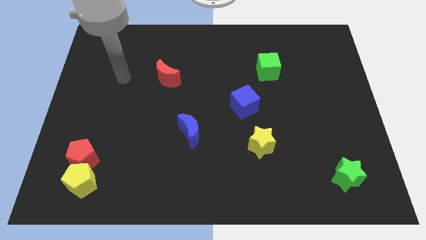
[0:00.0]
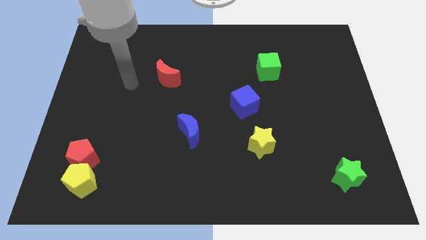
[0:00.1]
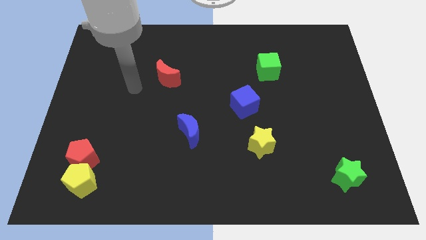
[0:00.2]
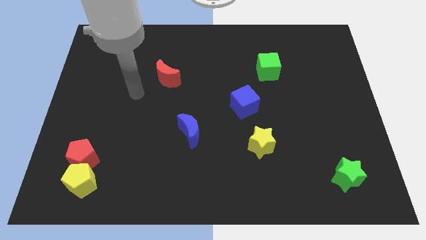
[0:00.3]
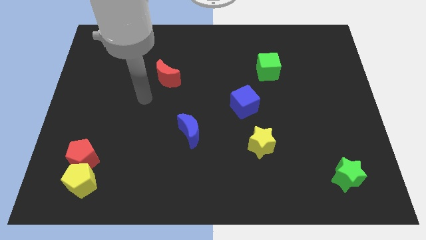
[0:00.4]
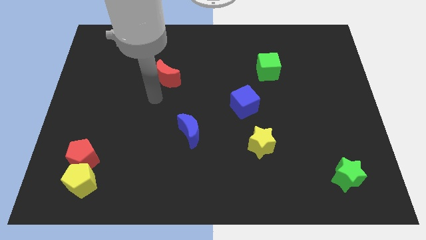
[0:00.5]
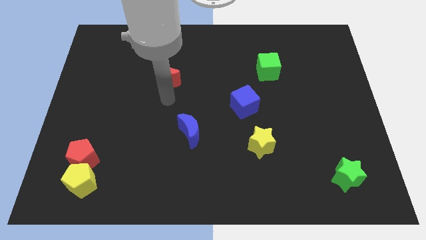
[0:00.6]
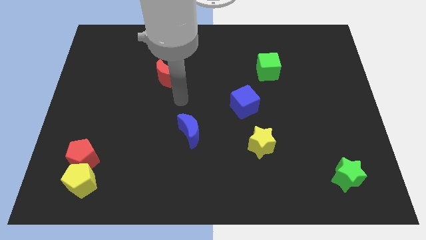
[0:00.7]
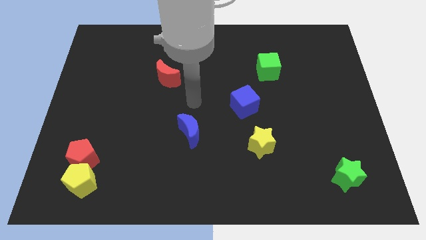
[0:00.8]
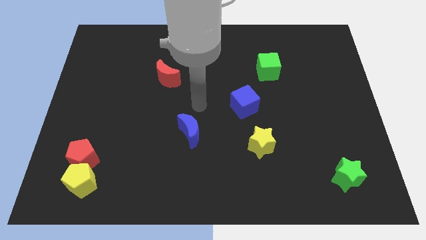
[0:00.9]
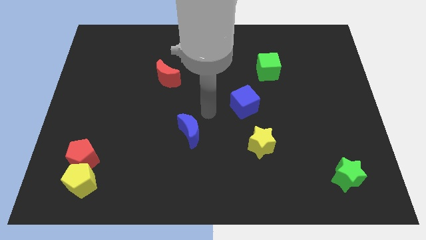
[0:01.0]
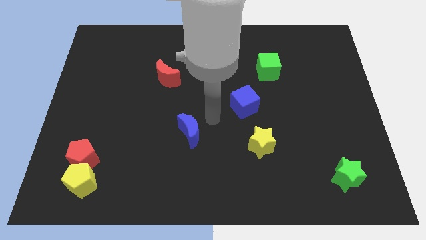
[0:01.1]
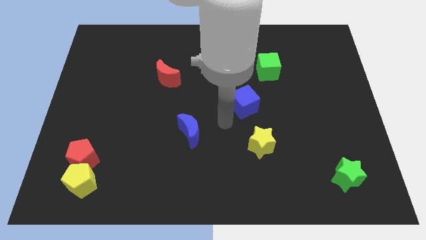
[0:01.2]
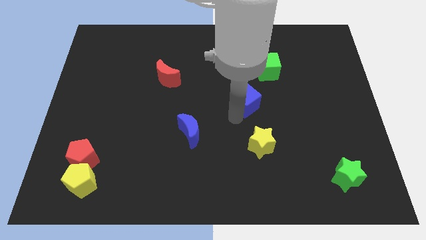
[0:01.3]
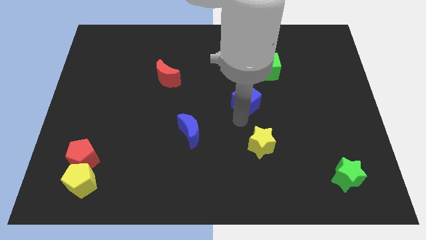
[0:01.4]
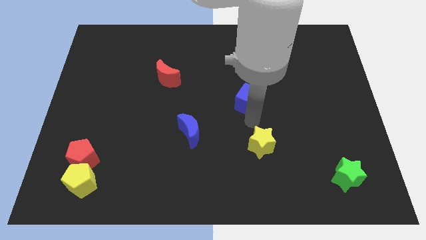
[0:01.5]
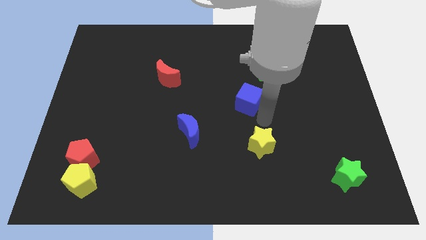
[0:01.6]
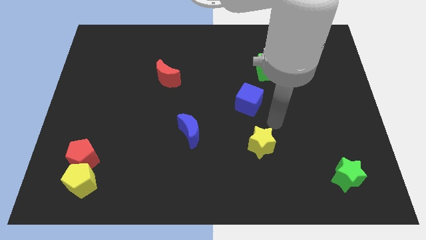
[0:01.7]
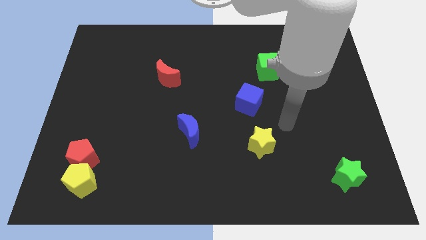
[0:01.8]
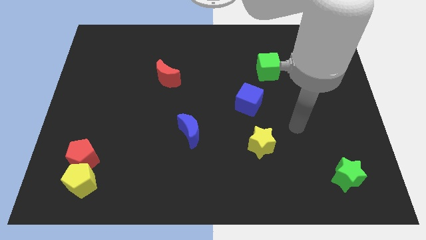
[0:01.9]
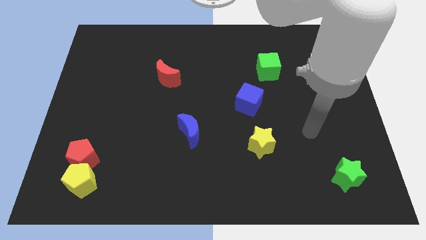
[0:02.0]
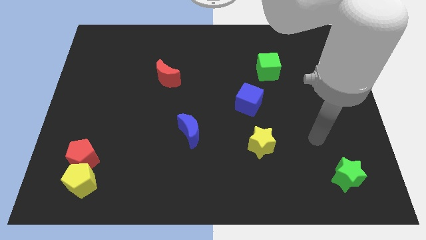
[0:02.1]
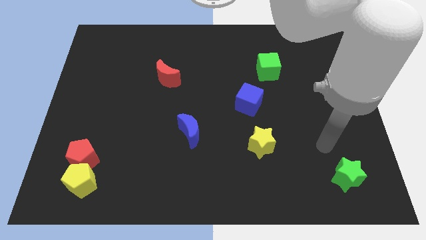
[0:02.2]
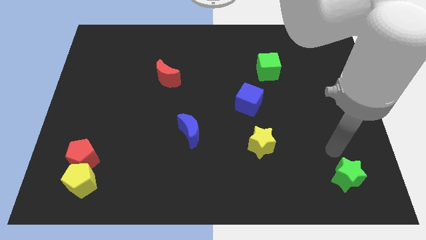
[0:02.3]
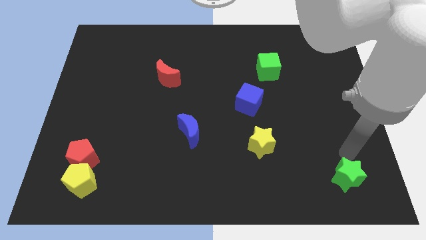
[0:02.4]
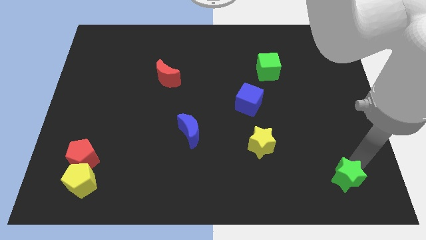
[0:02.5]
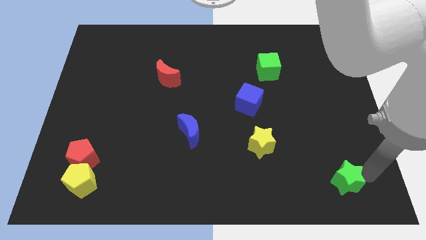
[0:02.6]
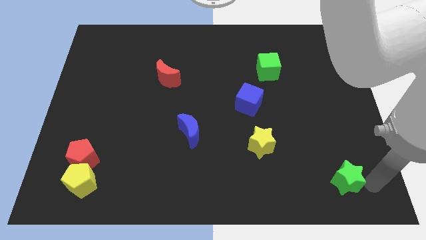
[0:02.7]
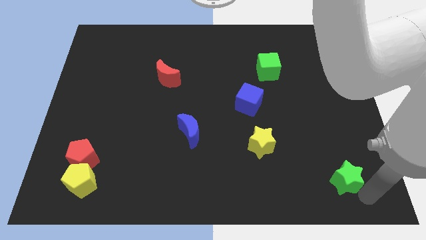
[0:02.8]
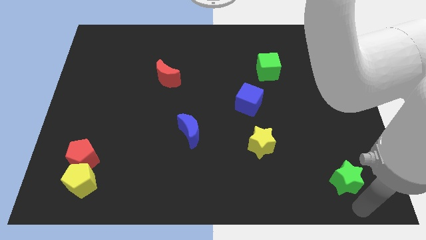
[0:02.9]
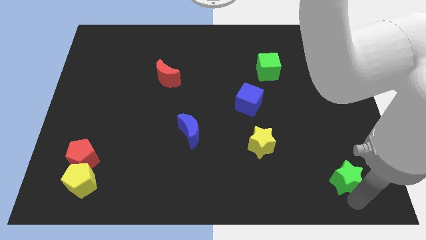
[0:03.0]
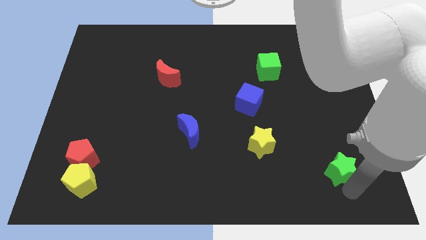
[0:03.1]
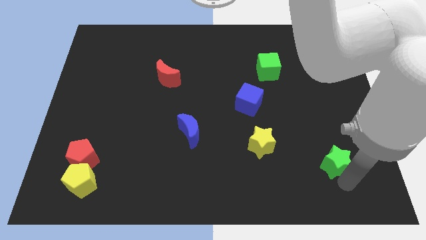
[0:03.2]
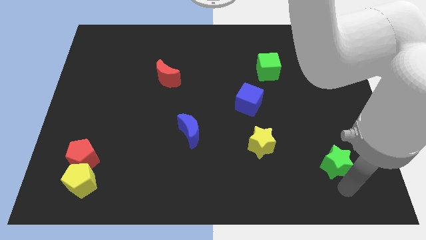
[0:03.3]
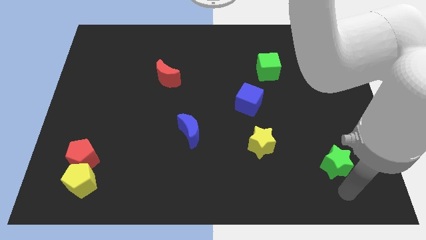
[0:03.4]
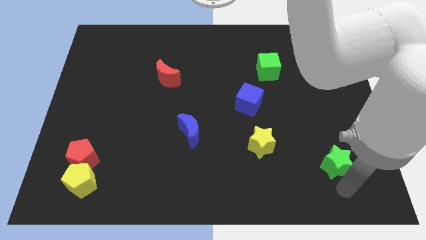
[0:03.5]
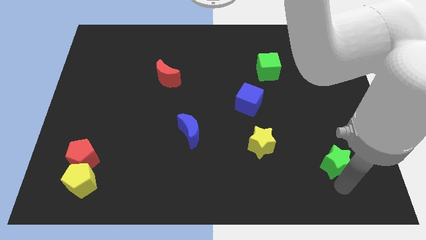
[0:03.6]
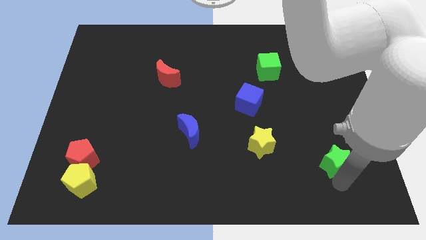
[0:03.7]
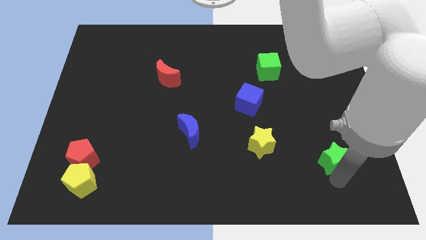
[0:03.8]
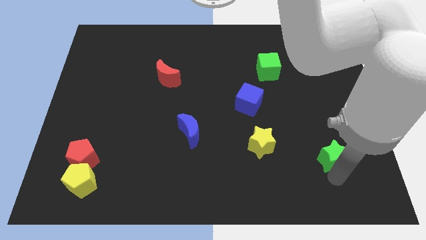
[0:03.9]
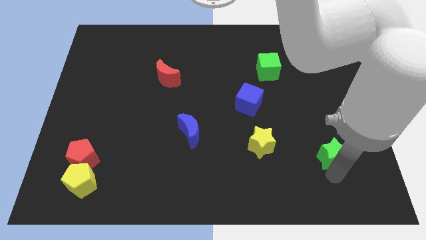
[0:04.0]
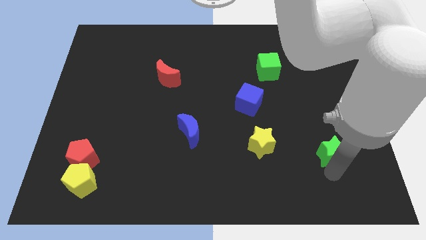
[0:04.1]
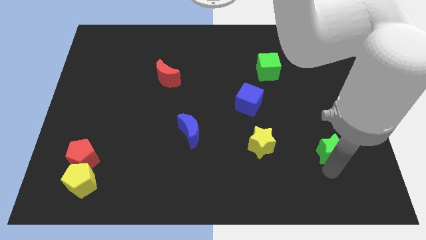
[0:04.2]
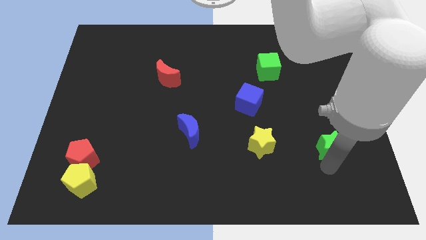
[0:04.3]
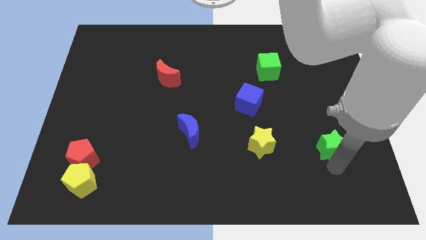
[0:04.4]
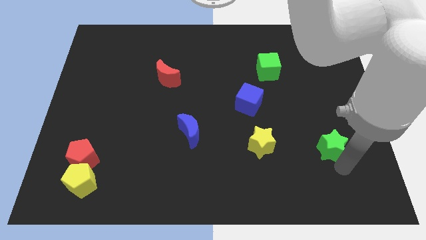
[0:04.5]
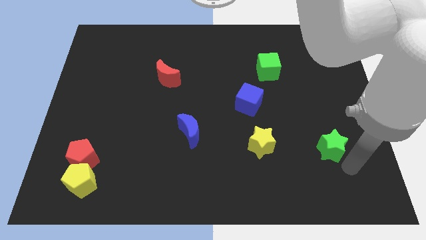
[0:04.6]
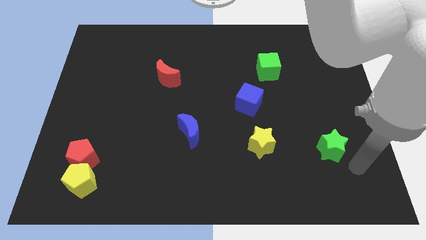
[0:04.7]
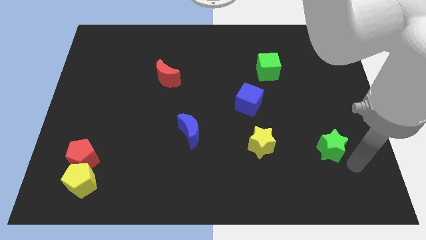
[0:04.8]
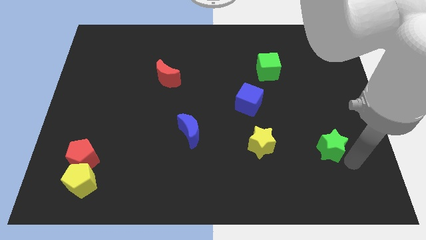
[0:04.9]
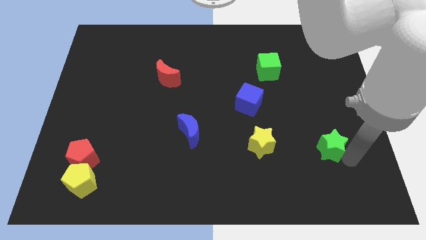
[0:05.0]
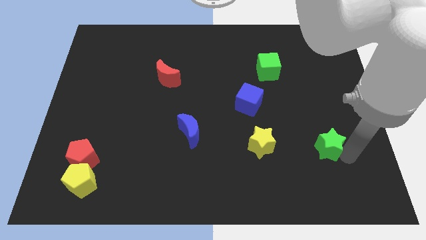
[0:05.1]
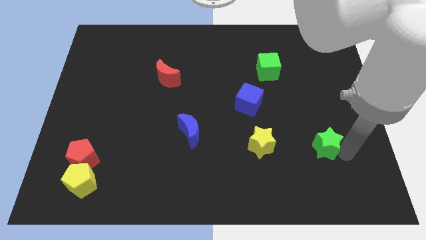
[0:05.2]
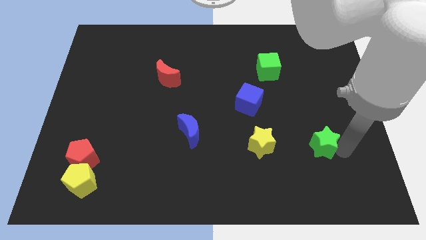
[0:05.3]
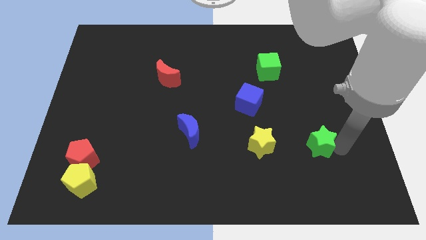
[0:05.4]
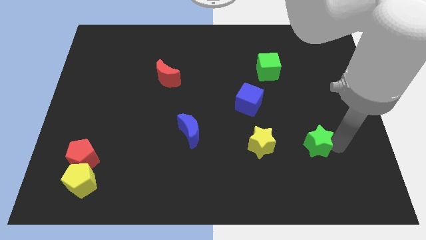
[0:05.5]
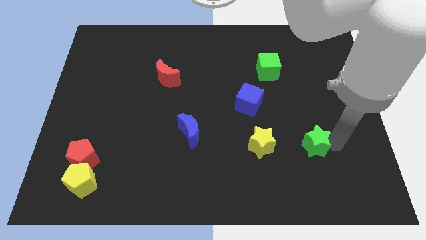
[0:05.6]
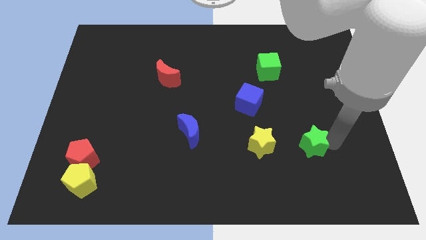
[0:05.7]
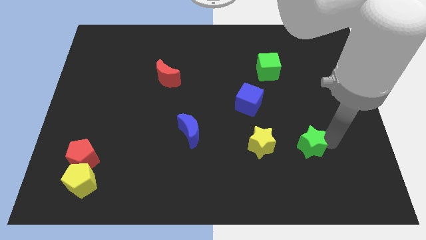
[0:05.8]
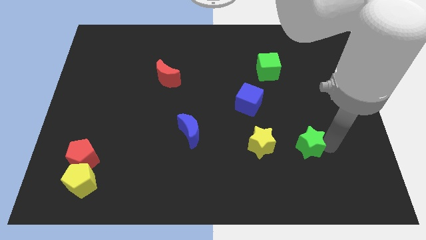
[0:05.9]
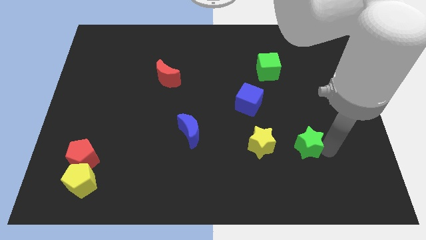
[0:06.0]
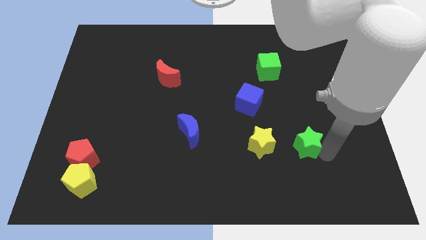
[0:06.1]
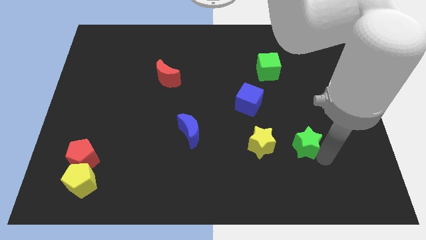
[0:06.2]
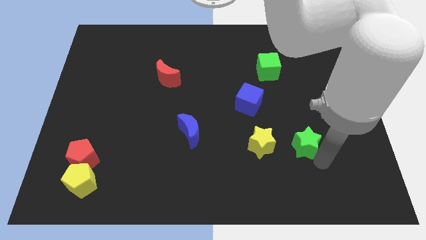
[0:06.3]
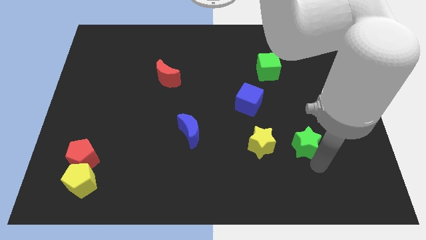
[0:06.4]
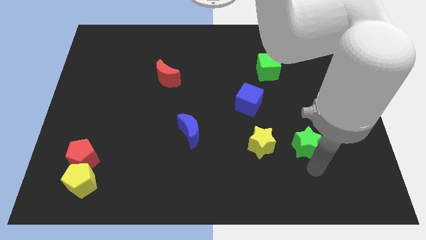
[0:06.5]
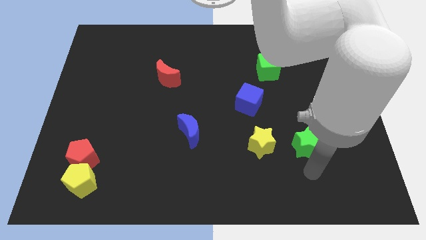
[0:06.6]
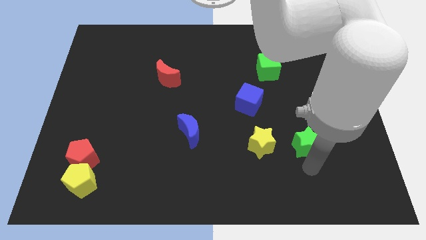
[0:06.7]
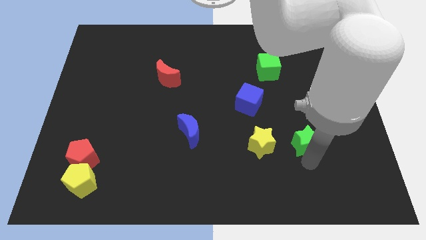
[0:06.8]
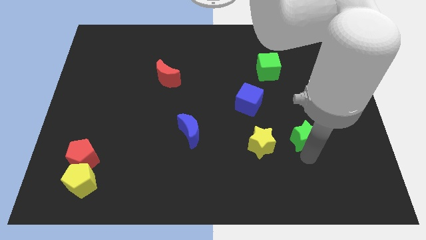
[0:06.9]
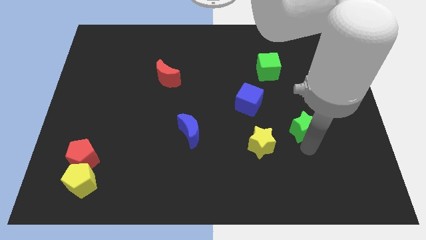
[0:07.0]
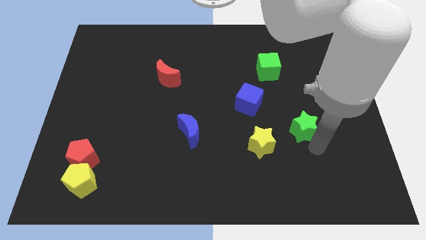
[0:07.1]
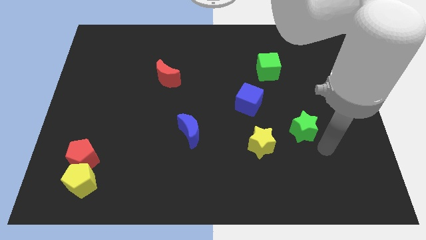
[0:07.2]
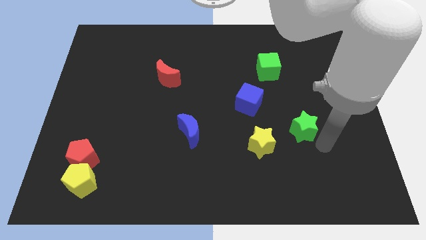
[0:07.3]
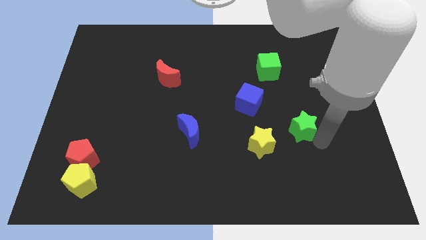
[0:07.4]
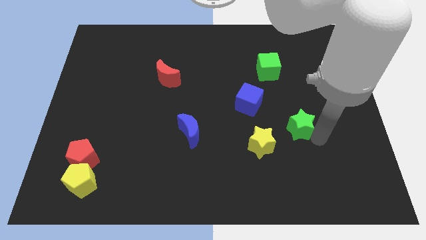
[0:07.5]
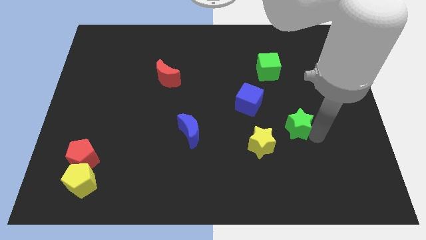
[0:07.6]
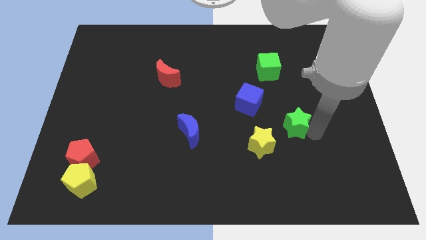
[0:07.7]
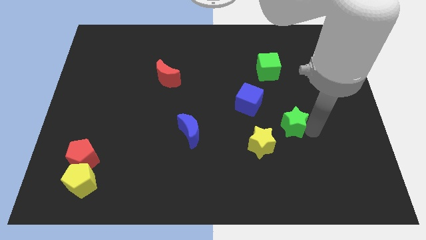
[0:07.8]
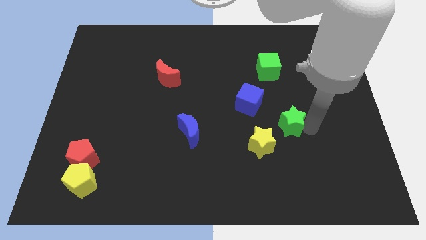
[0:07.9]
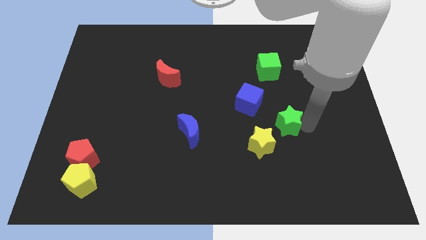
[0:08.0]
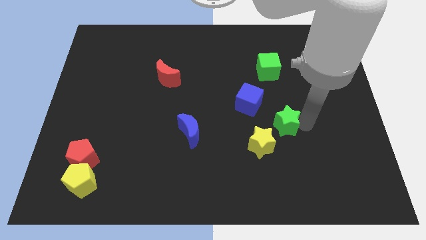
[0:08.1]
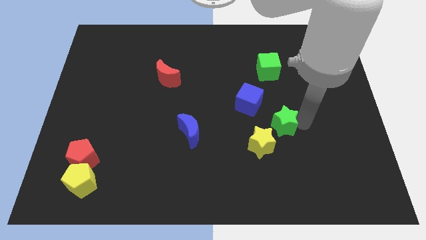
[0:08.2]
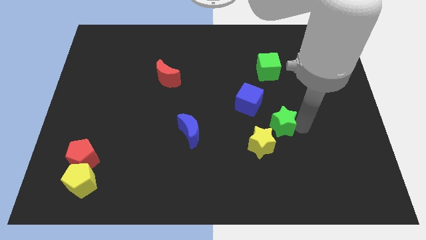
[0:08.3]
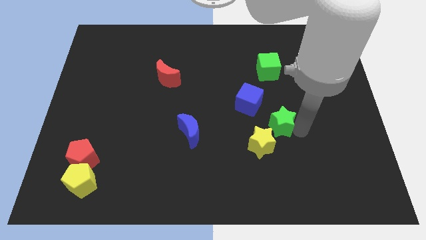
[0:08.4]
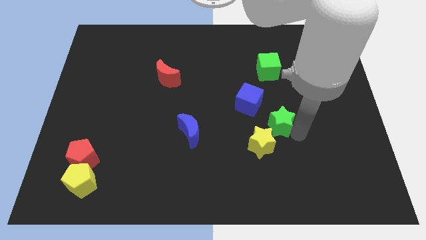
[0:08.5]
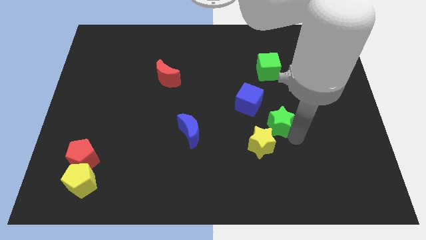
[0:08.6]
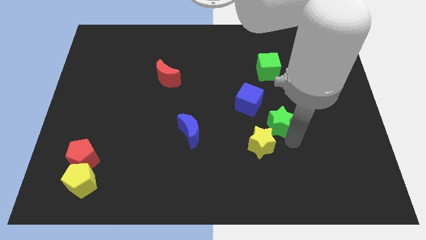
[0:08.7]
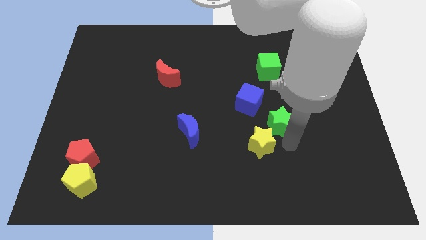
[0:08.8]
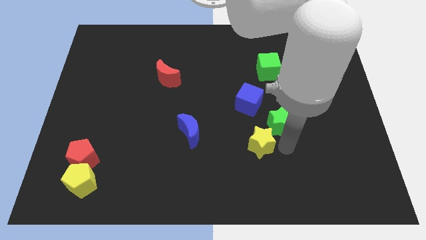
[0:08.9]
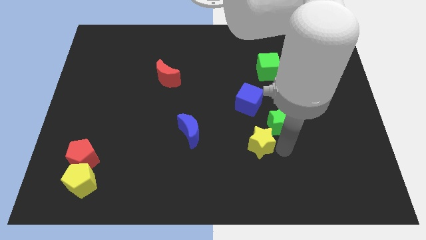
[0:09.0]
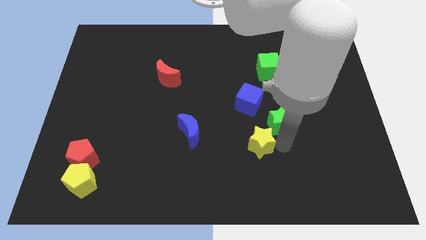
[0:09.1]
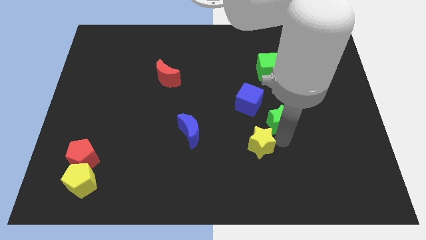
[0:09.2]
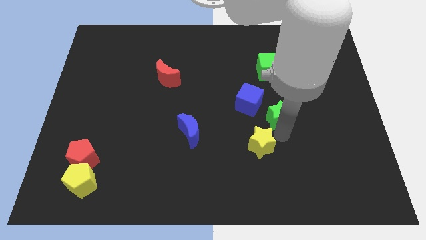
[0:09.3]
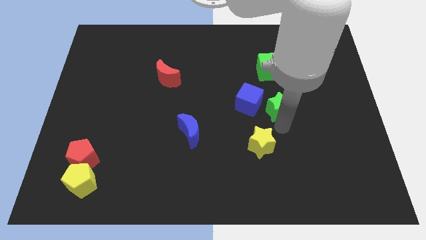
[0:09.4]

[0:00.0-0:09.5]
slide the green star up and left
